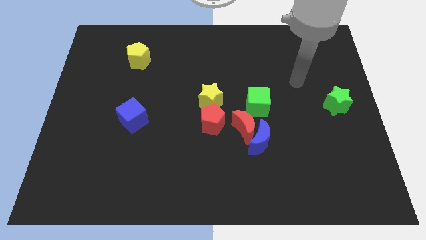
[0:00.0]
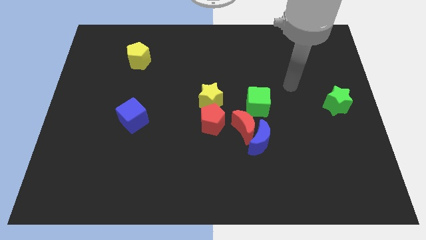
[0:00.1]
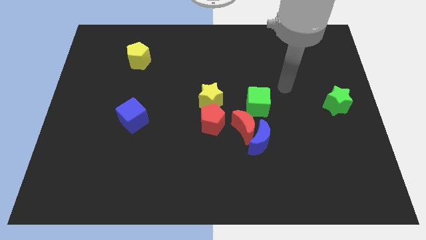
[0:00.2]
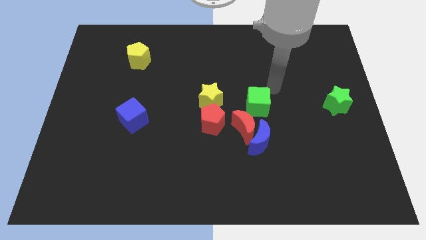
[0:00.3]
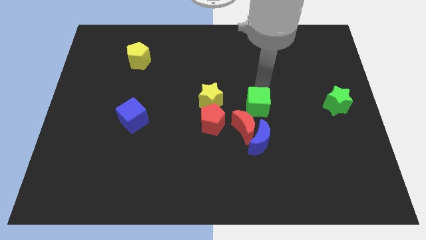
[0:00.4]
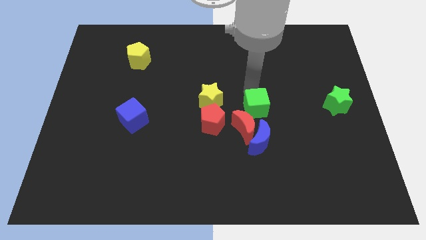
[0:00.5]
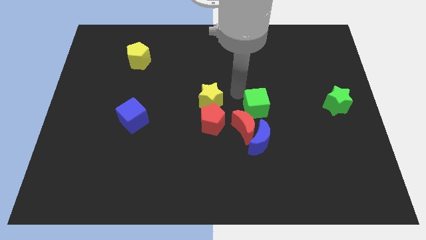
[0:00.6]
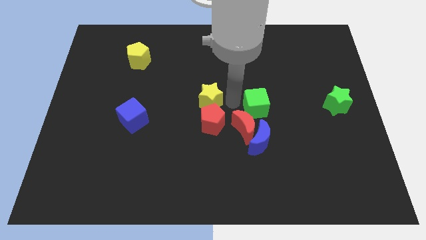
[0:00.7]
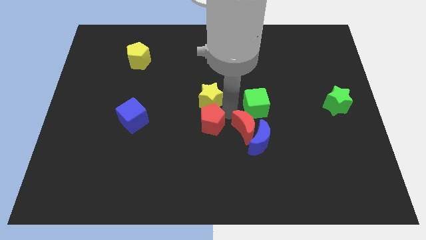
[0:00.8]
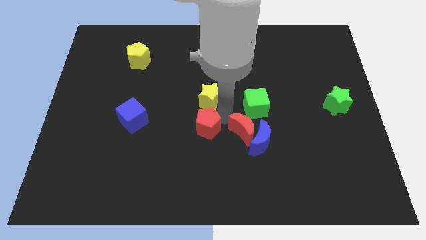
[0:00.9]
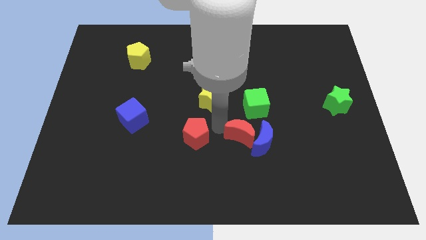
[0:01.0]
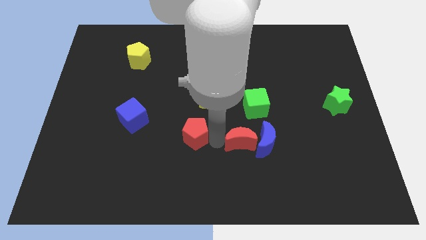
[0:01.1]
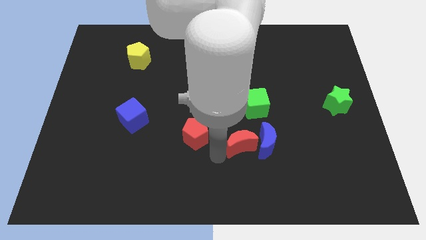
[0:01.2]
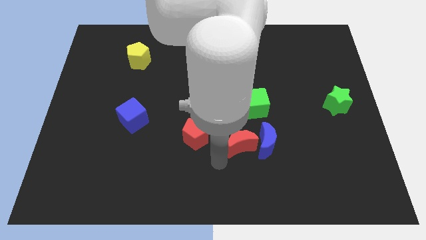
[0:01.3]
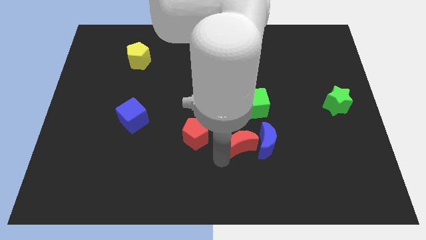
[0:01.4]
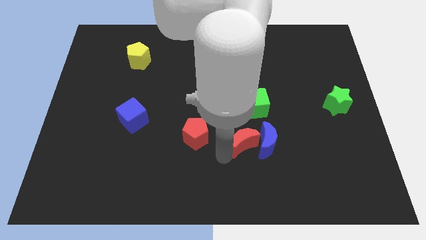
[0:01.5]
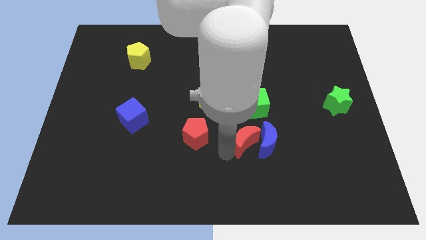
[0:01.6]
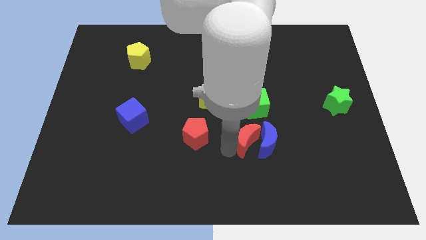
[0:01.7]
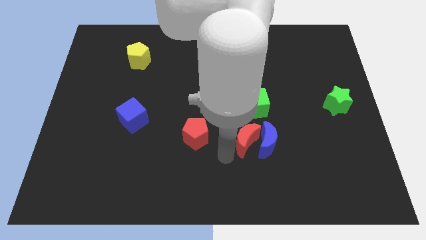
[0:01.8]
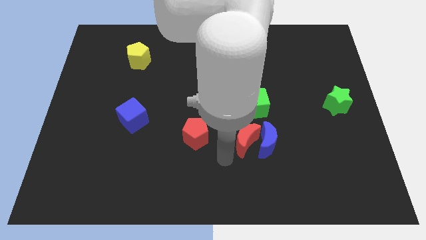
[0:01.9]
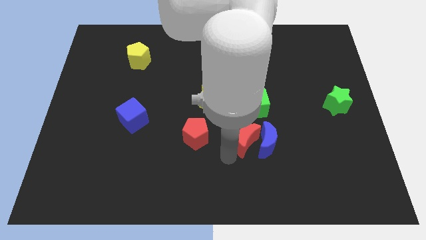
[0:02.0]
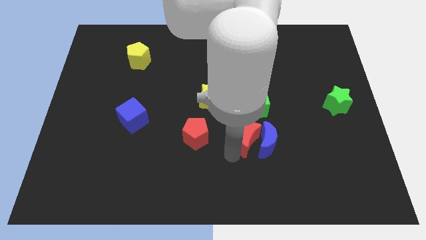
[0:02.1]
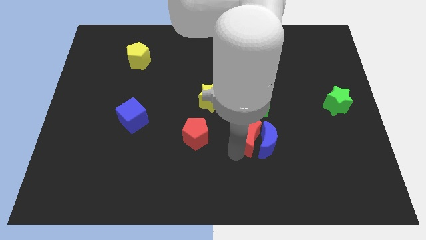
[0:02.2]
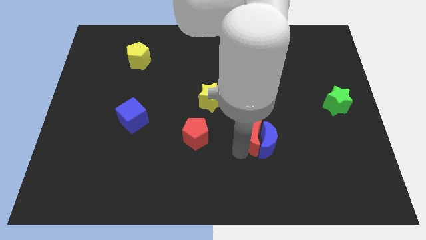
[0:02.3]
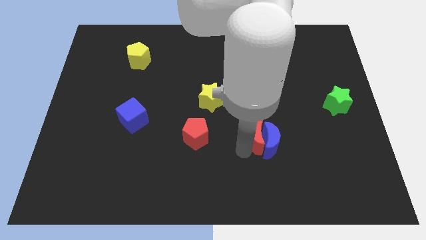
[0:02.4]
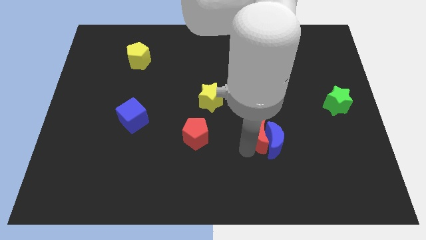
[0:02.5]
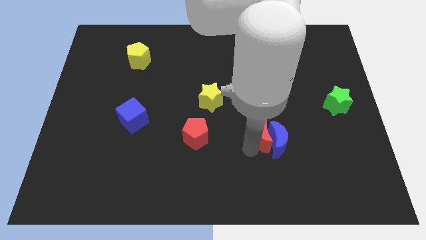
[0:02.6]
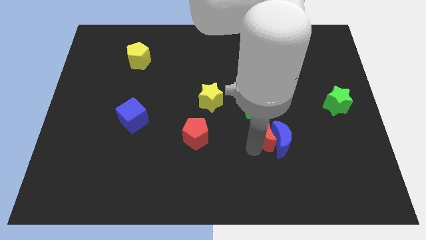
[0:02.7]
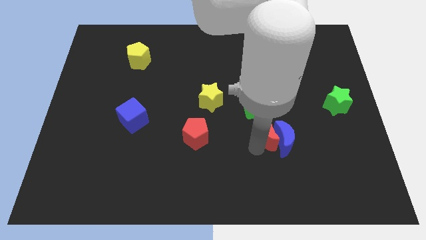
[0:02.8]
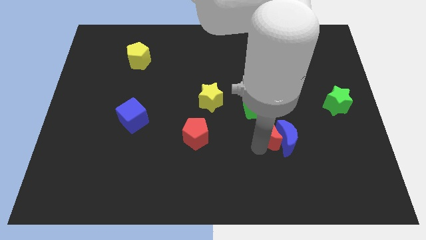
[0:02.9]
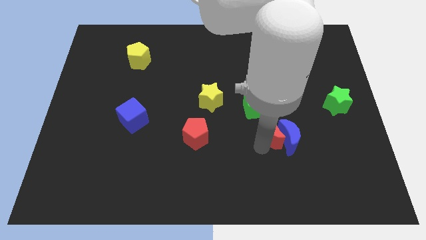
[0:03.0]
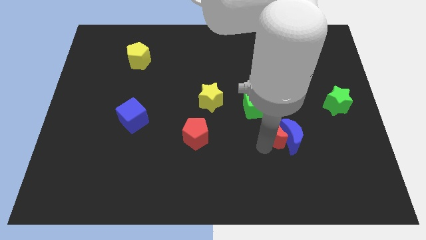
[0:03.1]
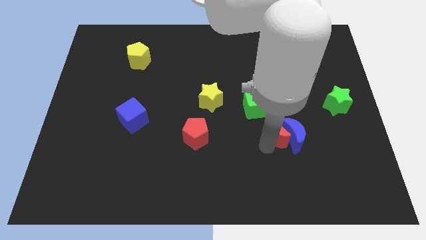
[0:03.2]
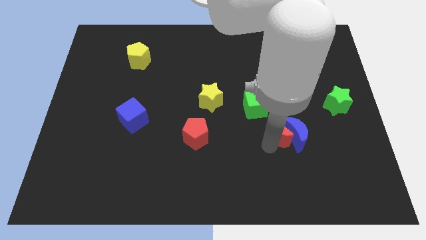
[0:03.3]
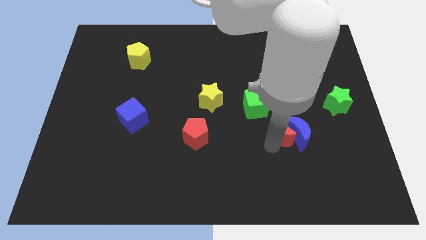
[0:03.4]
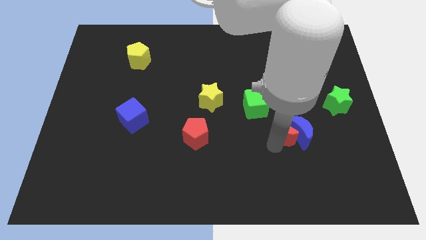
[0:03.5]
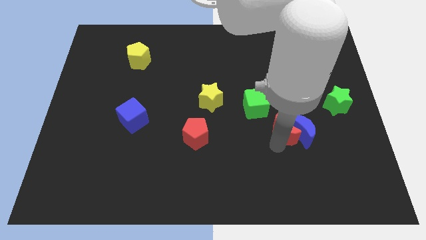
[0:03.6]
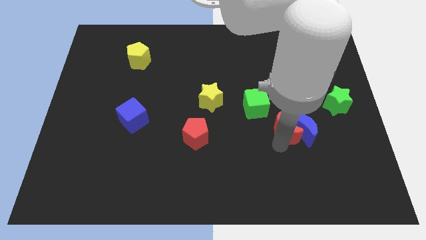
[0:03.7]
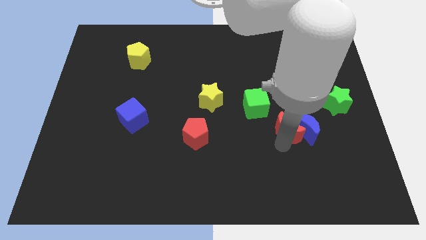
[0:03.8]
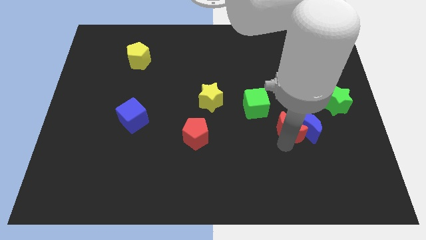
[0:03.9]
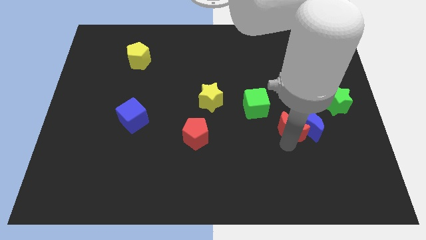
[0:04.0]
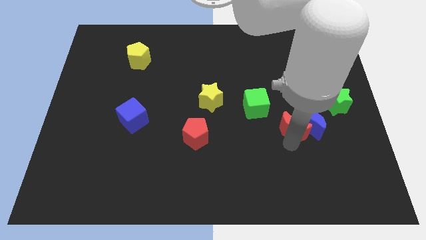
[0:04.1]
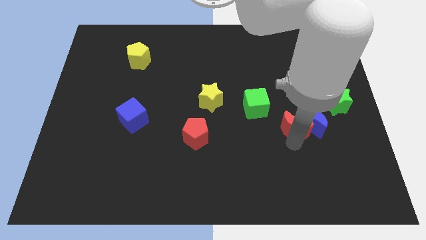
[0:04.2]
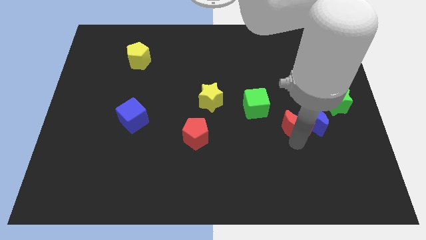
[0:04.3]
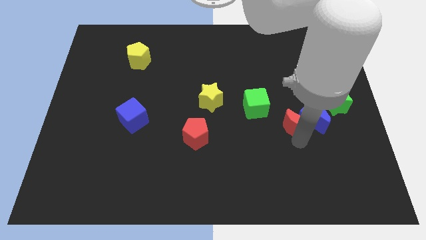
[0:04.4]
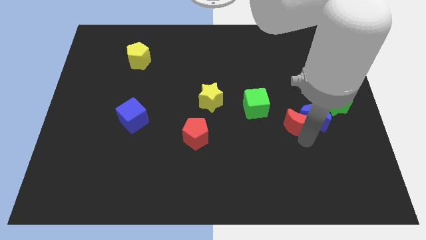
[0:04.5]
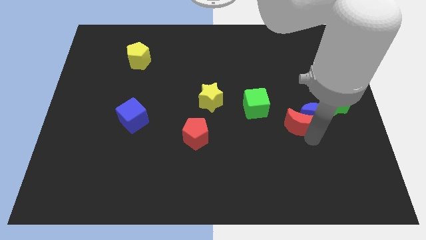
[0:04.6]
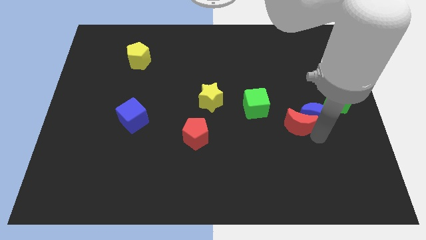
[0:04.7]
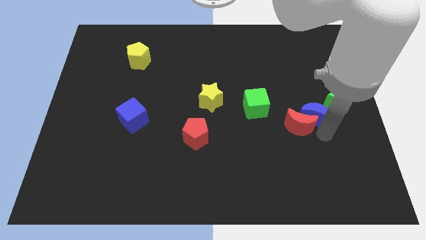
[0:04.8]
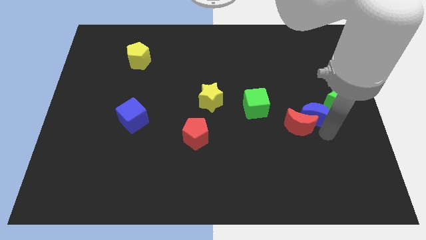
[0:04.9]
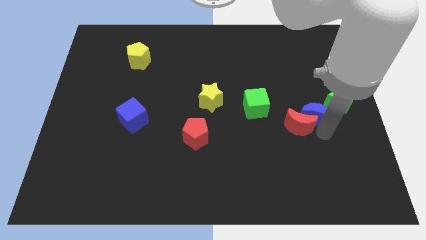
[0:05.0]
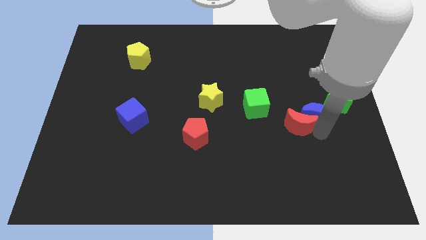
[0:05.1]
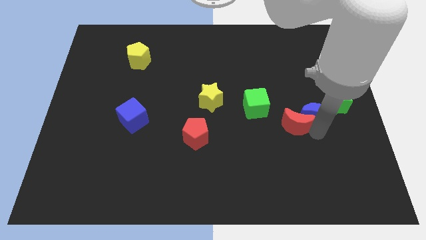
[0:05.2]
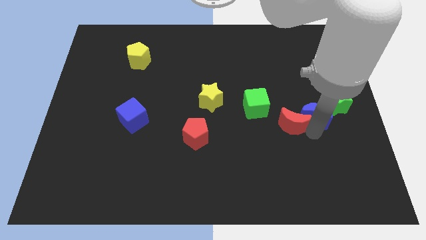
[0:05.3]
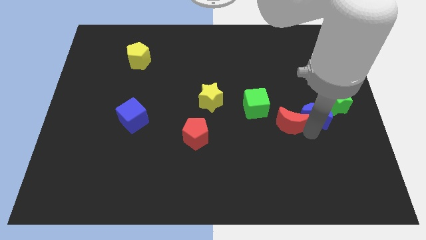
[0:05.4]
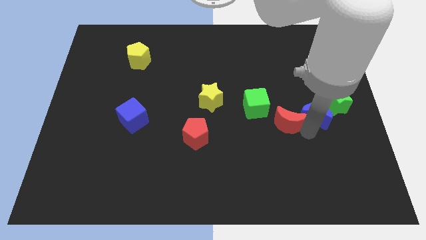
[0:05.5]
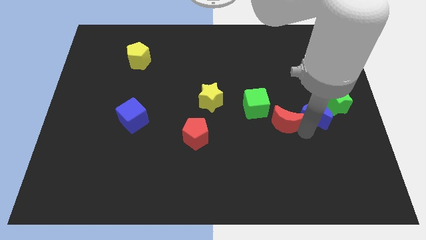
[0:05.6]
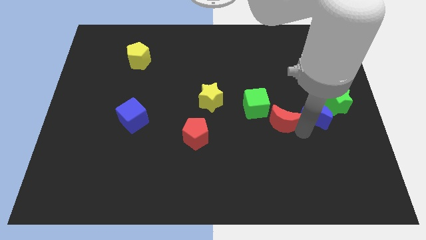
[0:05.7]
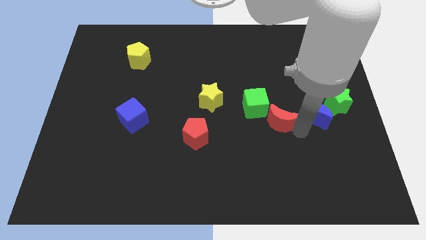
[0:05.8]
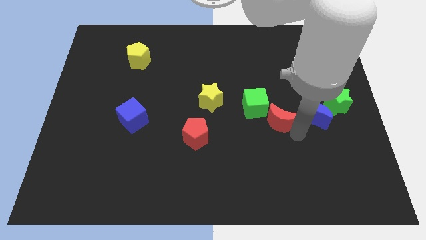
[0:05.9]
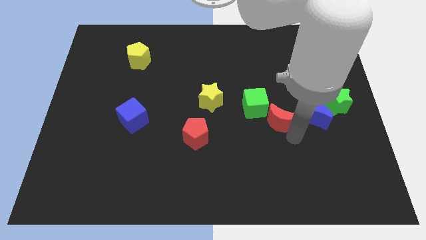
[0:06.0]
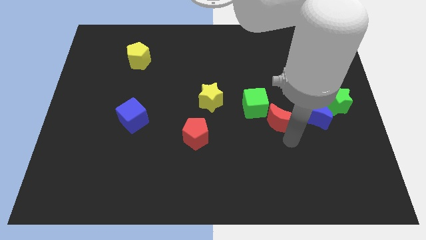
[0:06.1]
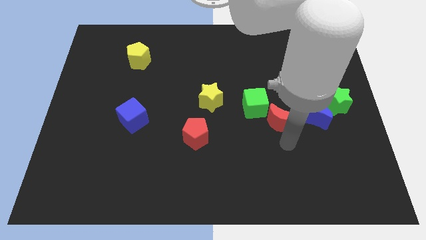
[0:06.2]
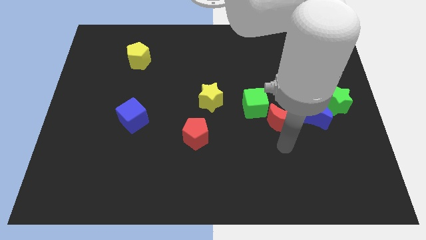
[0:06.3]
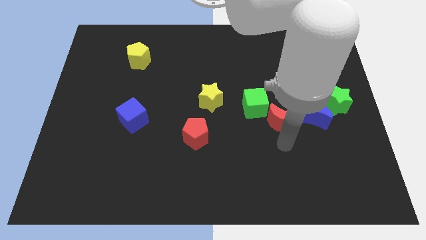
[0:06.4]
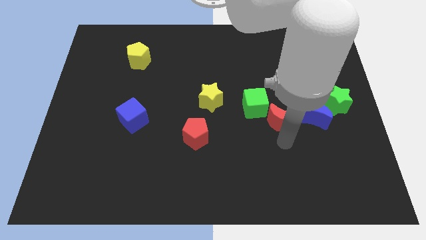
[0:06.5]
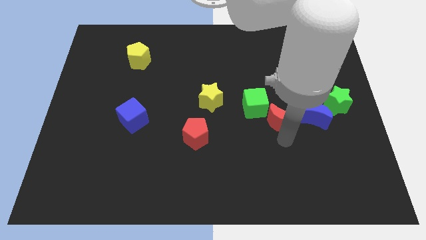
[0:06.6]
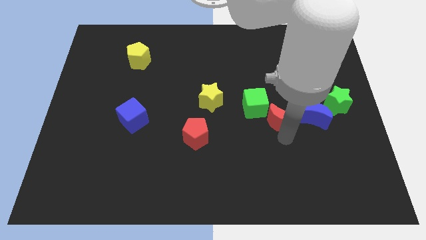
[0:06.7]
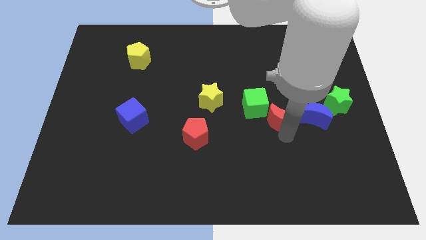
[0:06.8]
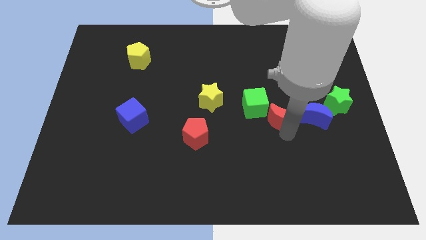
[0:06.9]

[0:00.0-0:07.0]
push the red moon up and to the right diagonally somewhat

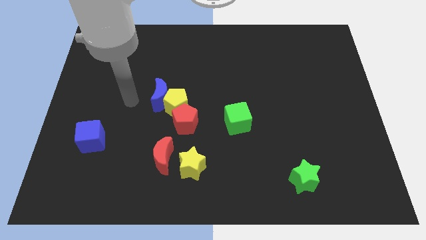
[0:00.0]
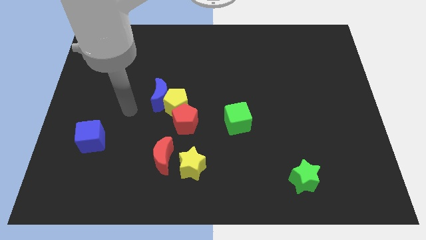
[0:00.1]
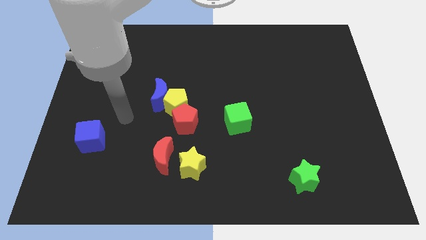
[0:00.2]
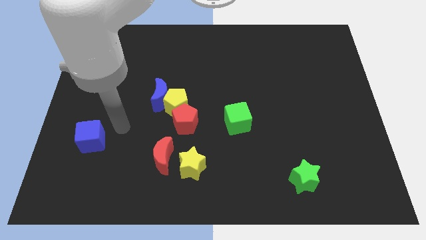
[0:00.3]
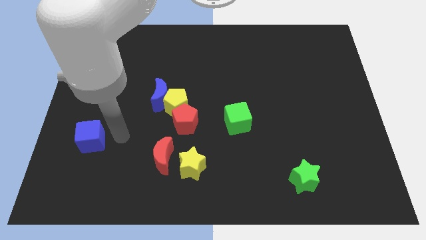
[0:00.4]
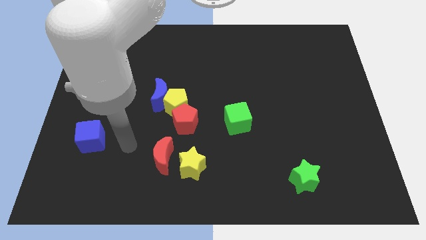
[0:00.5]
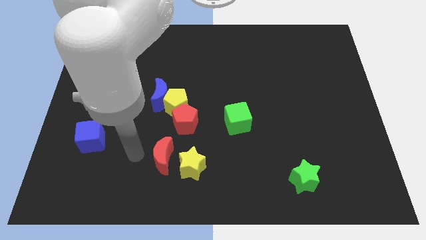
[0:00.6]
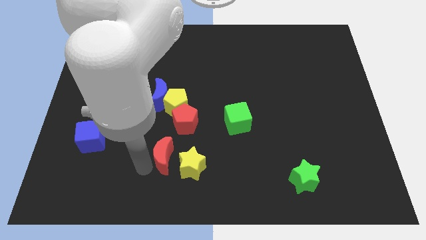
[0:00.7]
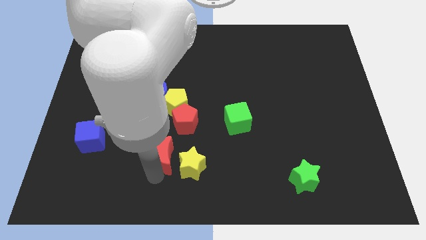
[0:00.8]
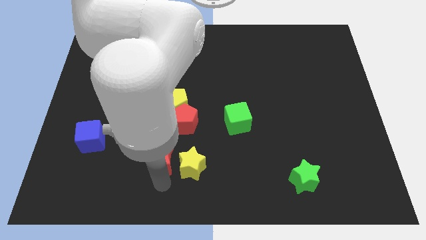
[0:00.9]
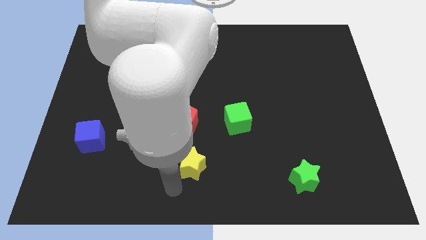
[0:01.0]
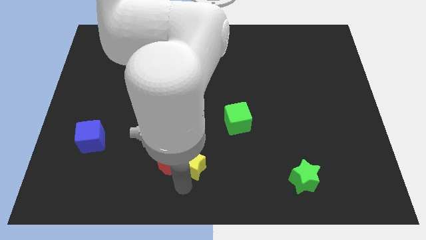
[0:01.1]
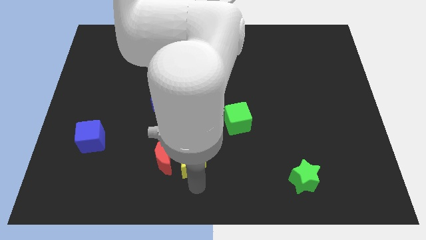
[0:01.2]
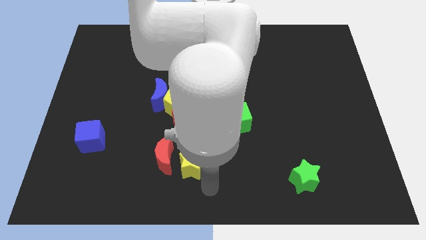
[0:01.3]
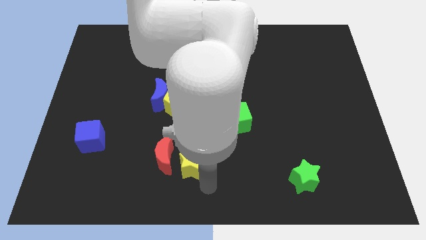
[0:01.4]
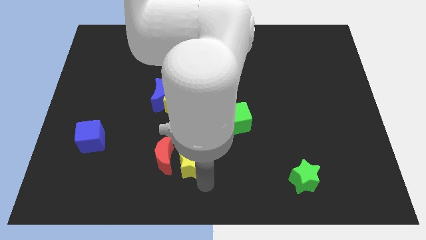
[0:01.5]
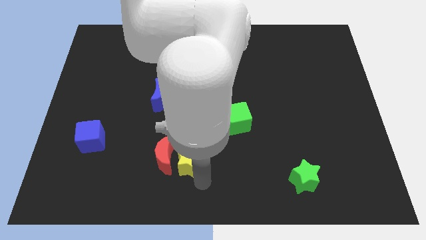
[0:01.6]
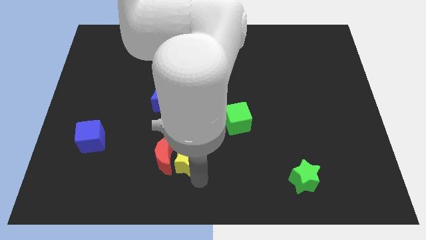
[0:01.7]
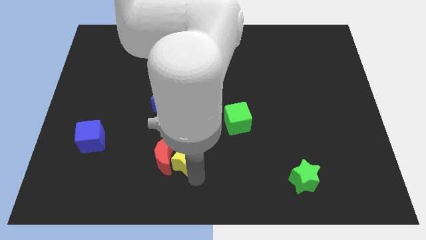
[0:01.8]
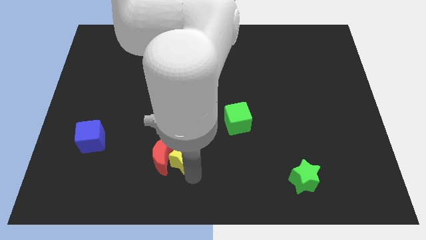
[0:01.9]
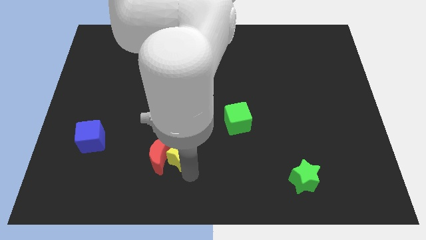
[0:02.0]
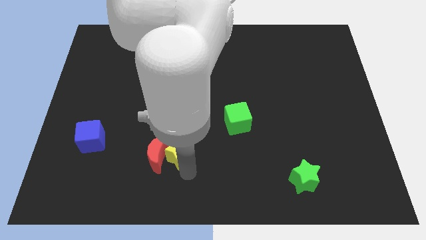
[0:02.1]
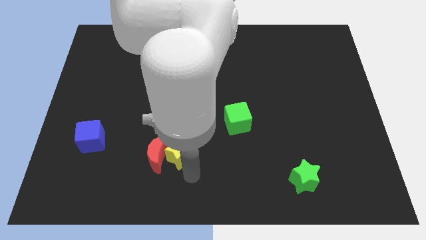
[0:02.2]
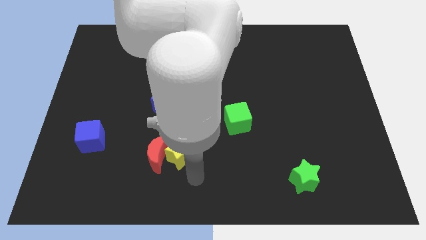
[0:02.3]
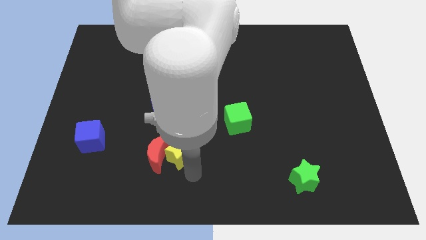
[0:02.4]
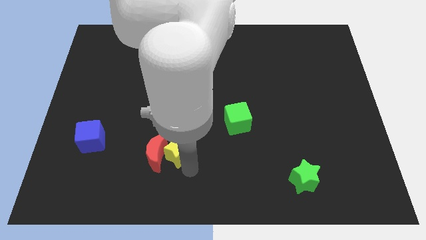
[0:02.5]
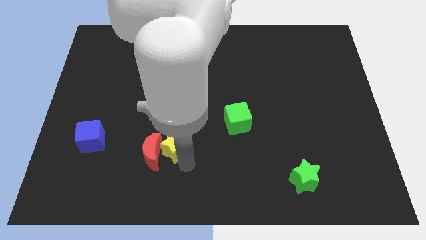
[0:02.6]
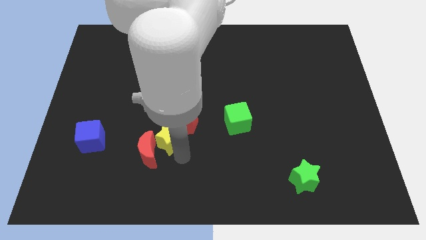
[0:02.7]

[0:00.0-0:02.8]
push the yellow star upwards and left diagonally a little bit
